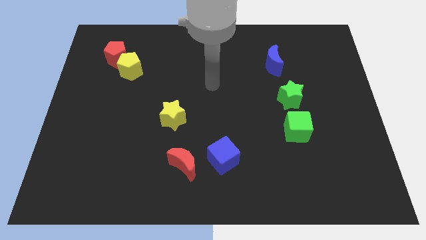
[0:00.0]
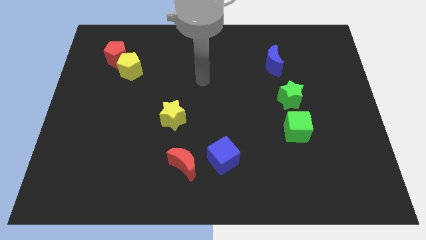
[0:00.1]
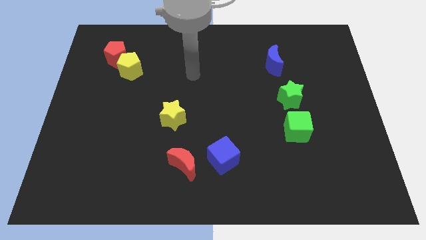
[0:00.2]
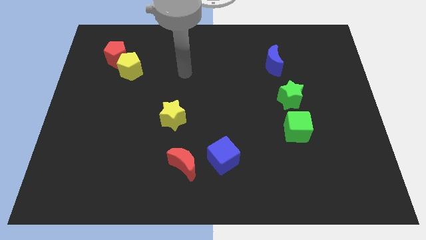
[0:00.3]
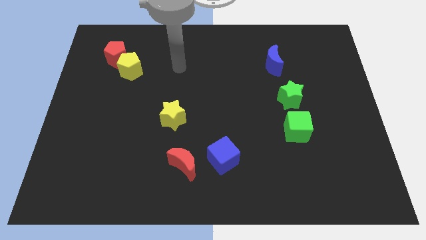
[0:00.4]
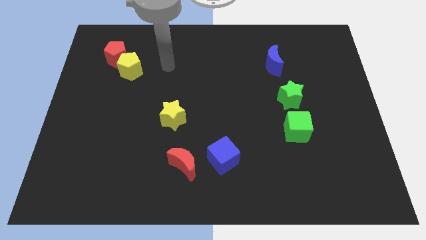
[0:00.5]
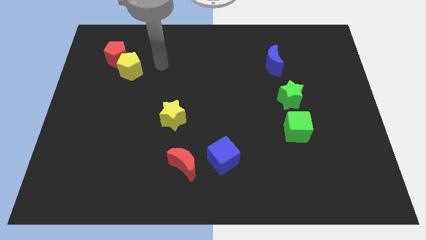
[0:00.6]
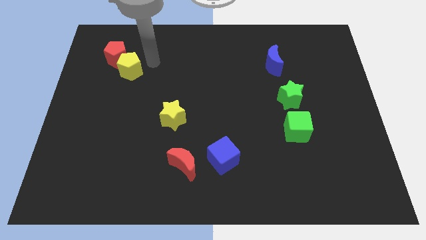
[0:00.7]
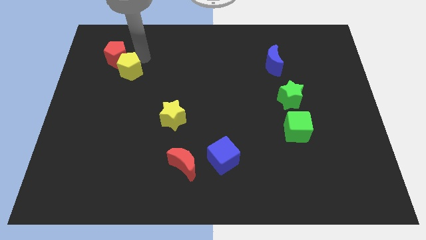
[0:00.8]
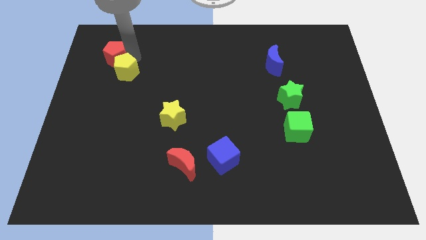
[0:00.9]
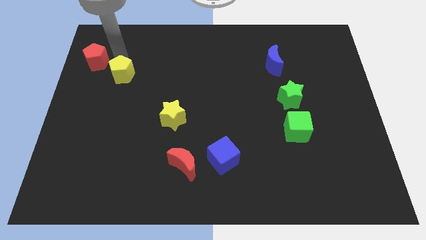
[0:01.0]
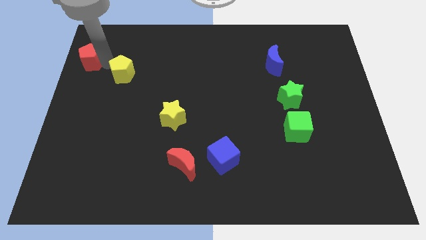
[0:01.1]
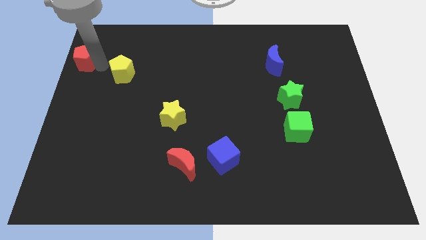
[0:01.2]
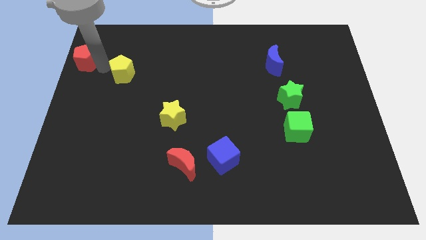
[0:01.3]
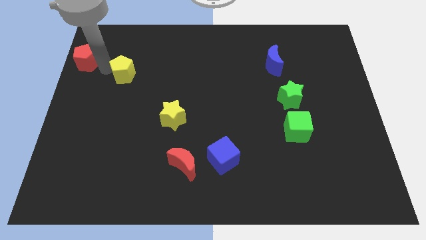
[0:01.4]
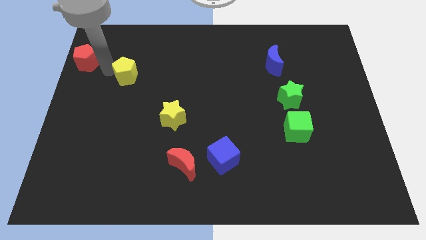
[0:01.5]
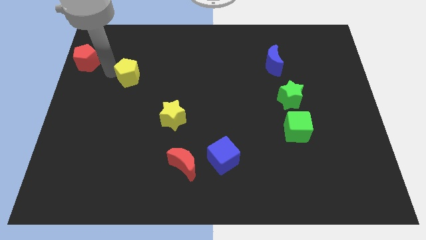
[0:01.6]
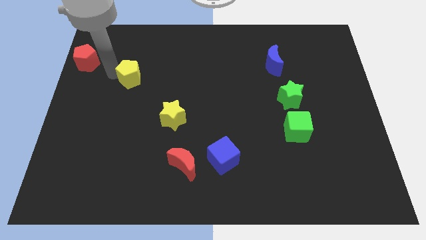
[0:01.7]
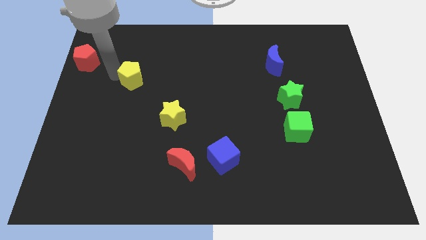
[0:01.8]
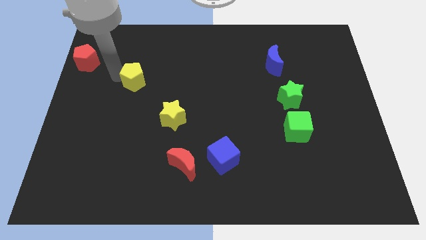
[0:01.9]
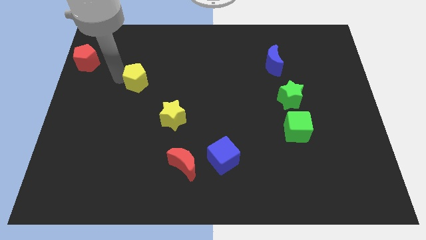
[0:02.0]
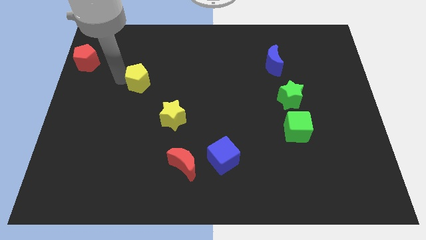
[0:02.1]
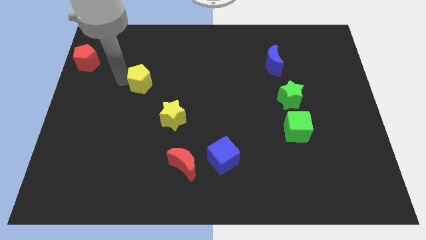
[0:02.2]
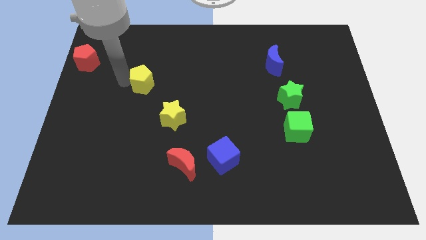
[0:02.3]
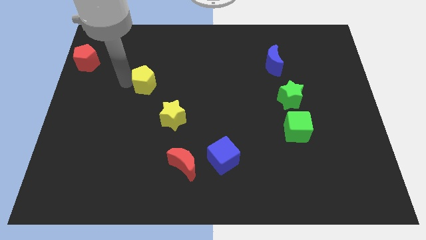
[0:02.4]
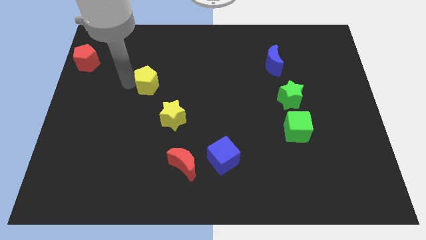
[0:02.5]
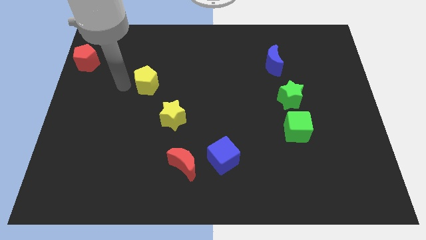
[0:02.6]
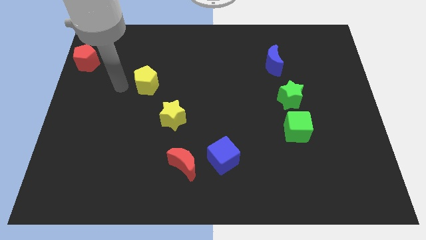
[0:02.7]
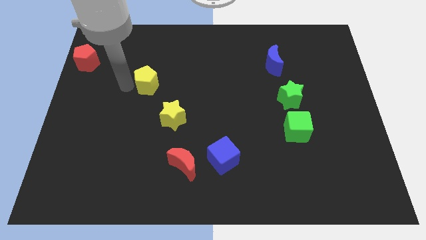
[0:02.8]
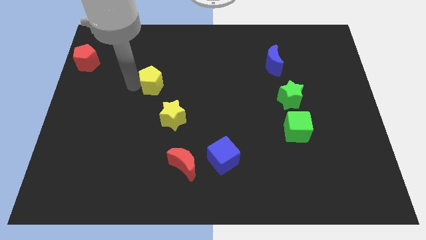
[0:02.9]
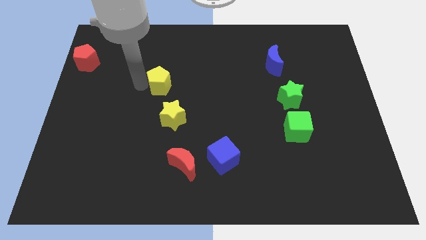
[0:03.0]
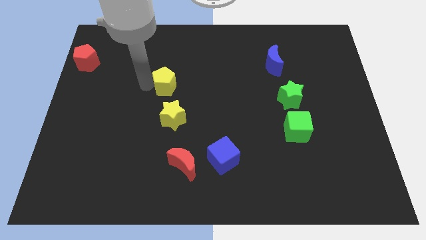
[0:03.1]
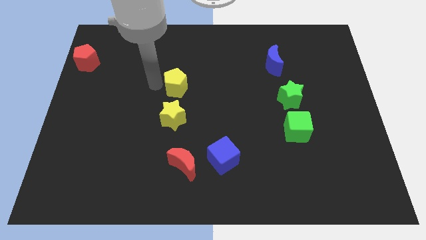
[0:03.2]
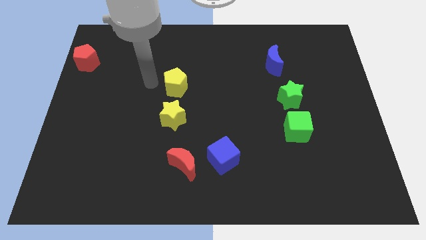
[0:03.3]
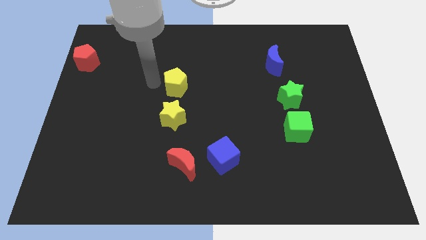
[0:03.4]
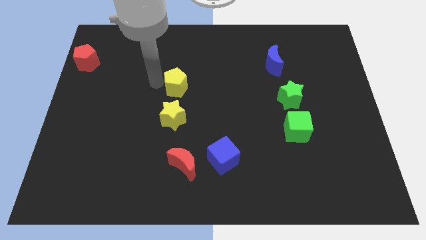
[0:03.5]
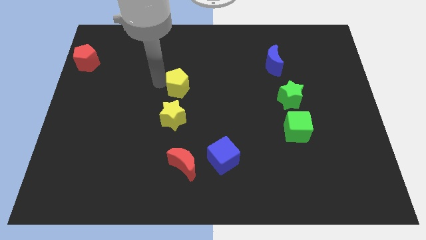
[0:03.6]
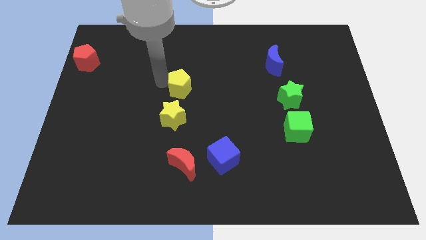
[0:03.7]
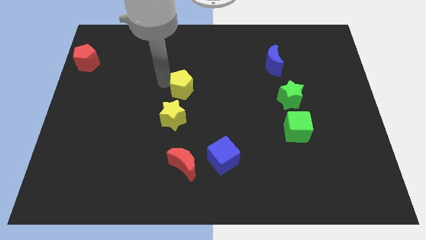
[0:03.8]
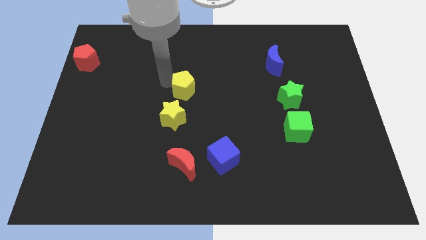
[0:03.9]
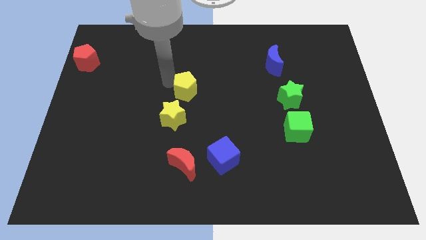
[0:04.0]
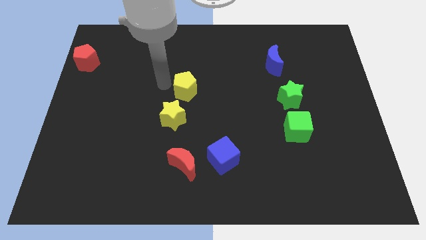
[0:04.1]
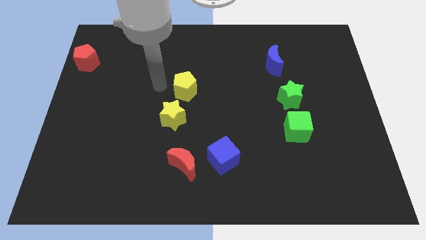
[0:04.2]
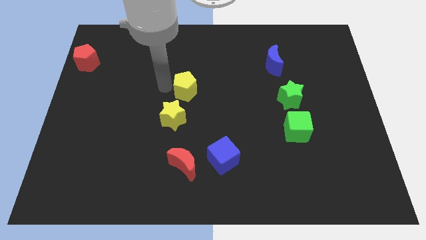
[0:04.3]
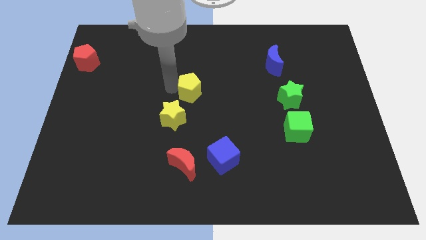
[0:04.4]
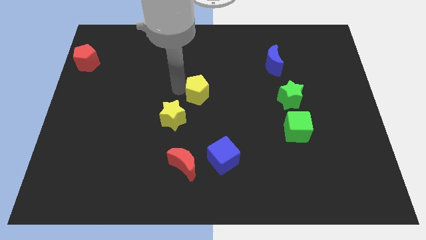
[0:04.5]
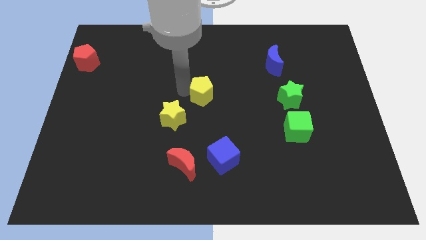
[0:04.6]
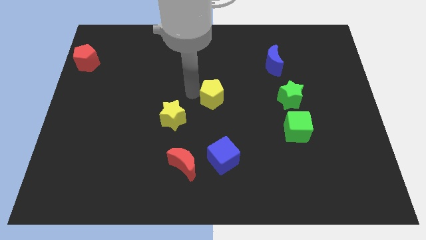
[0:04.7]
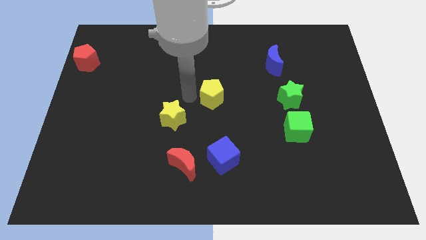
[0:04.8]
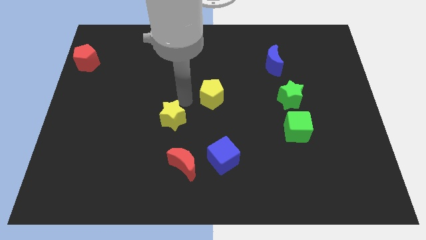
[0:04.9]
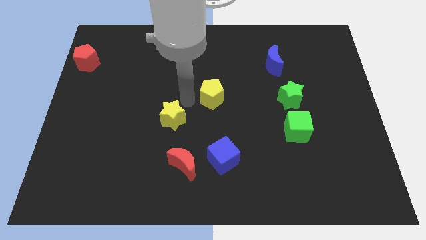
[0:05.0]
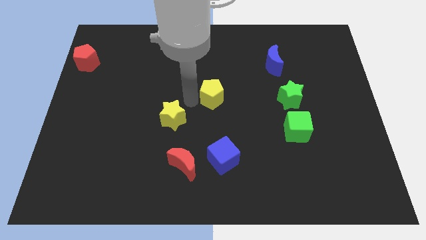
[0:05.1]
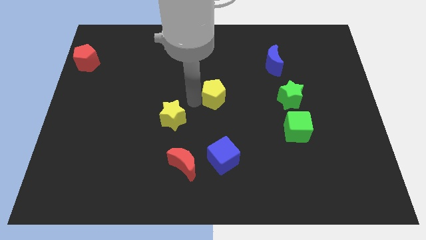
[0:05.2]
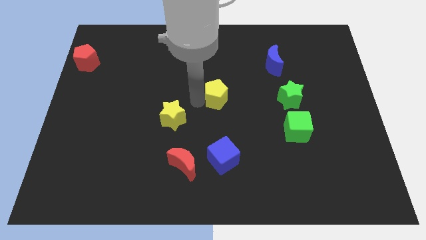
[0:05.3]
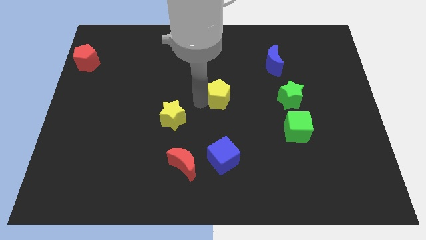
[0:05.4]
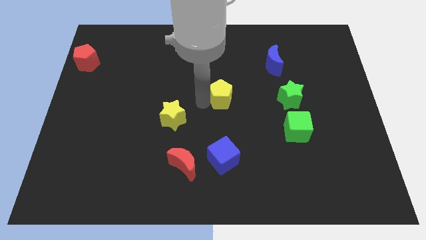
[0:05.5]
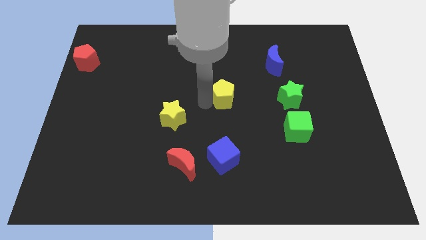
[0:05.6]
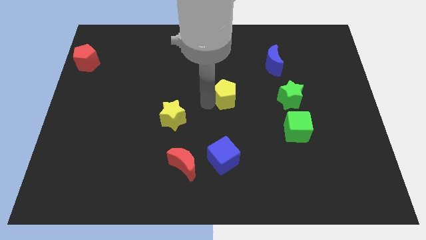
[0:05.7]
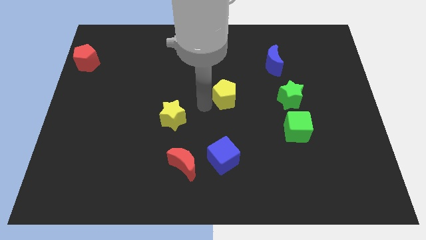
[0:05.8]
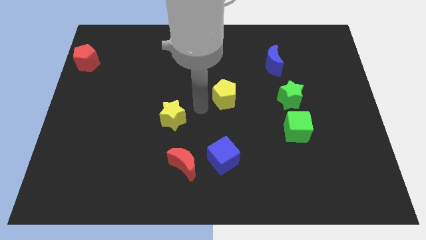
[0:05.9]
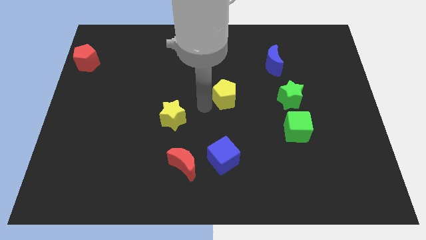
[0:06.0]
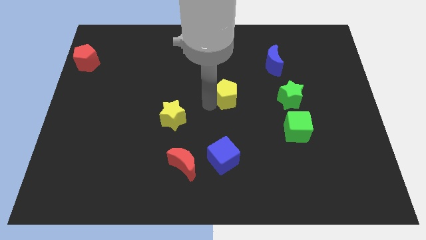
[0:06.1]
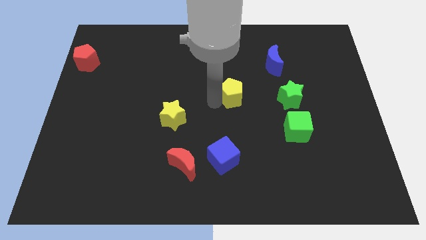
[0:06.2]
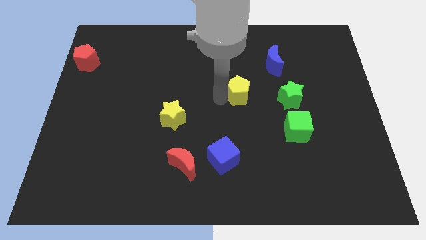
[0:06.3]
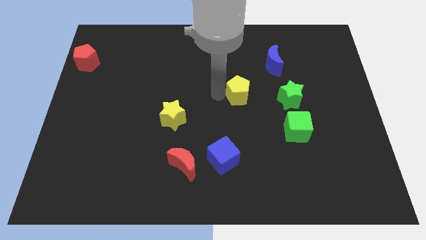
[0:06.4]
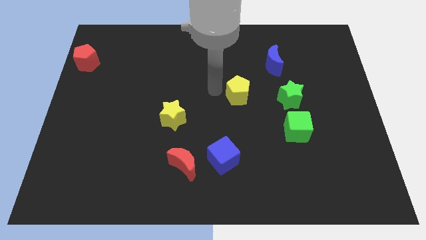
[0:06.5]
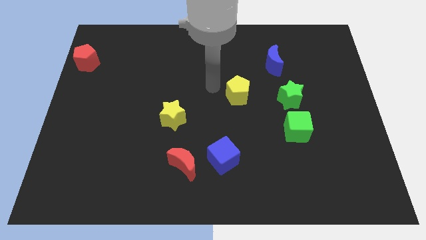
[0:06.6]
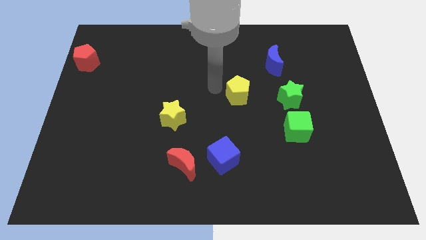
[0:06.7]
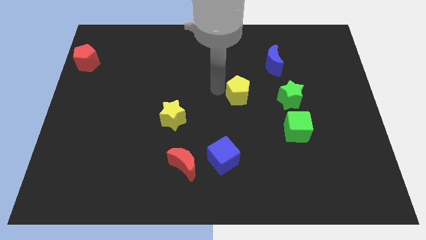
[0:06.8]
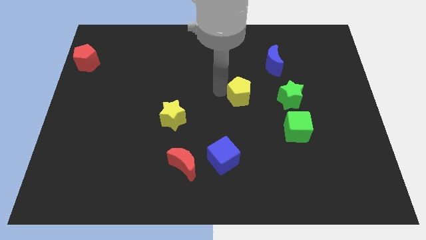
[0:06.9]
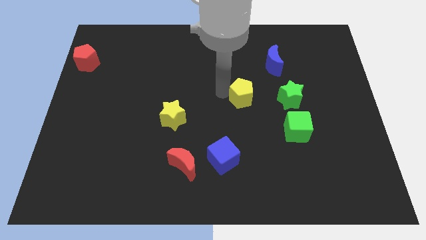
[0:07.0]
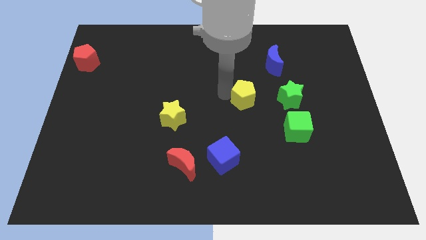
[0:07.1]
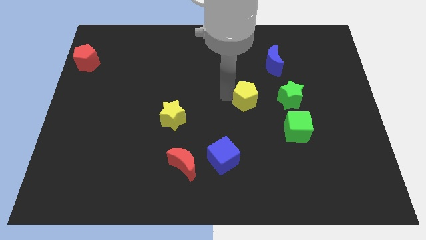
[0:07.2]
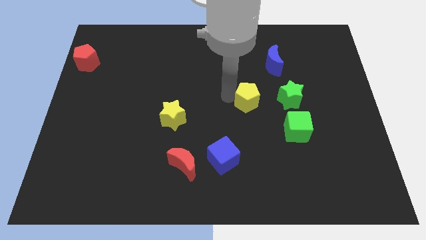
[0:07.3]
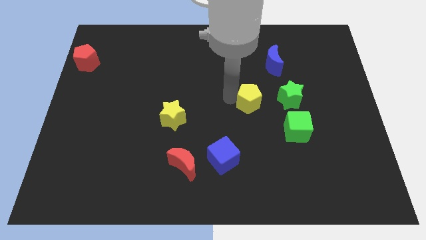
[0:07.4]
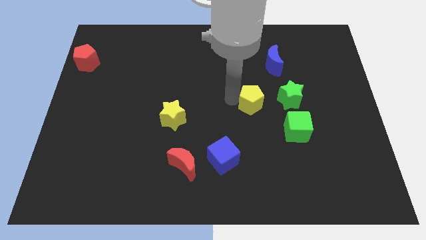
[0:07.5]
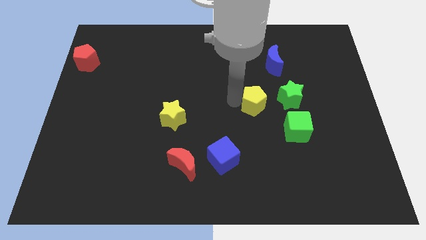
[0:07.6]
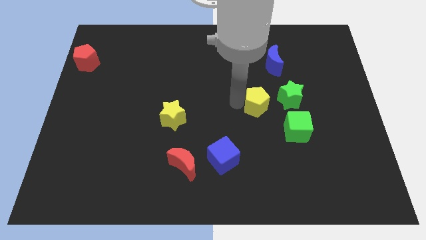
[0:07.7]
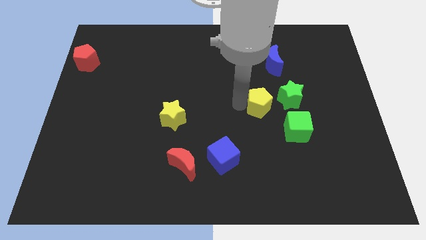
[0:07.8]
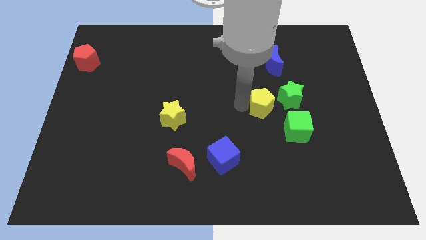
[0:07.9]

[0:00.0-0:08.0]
put the yellow pentagon to the bottom side of the blue moon
